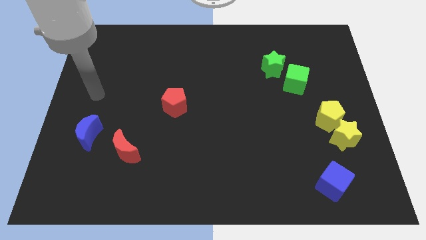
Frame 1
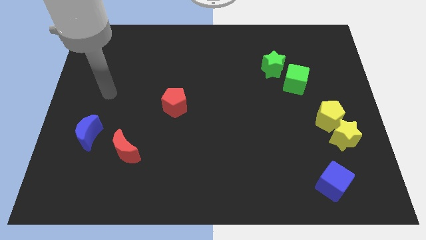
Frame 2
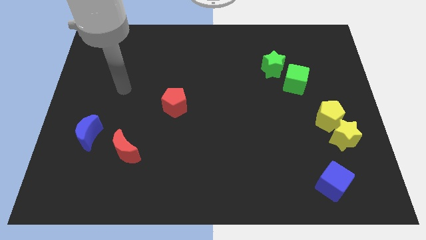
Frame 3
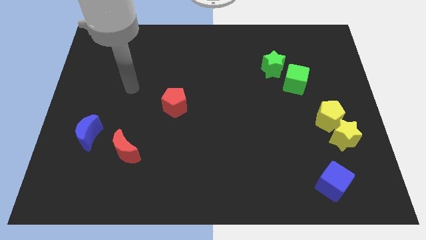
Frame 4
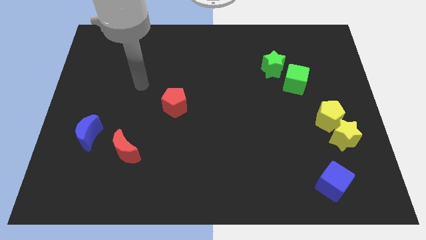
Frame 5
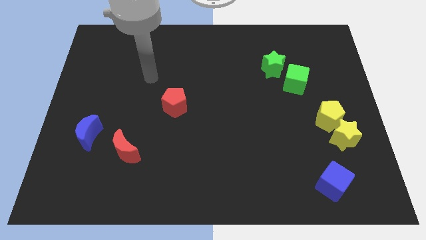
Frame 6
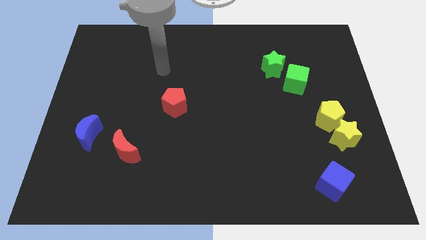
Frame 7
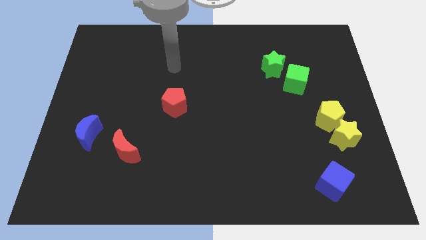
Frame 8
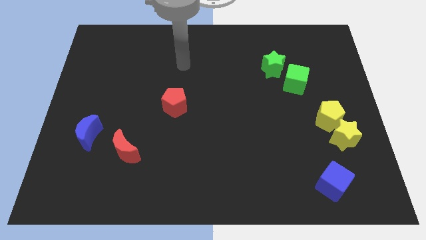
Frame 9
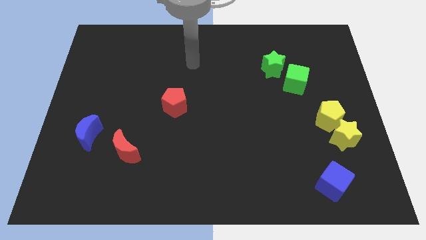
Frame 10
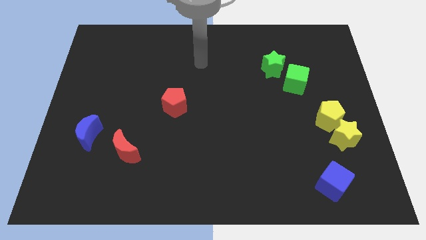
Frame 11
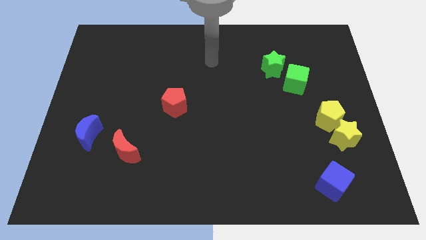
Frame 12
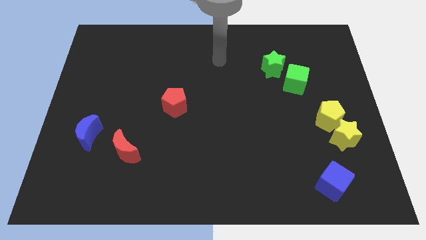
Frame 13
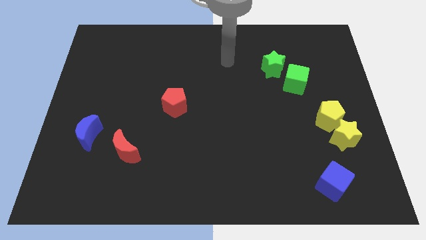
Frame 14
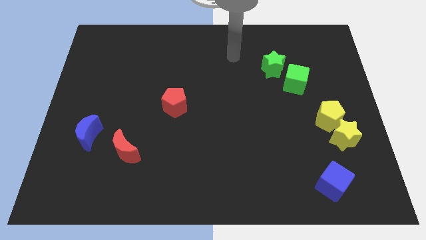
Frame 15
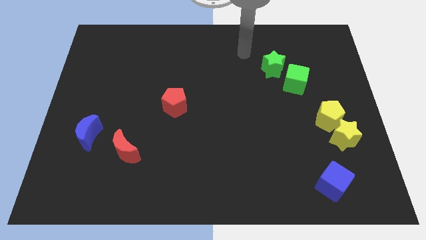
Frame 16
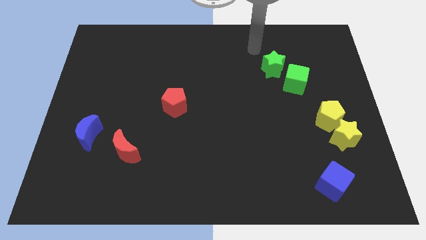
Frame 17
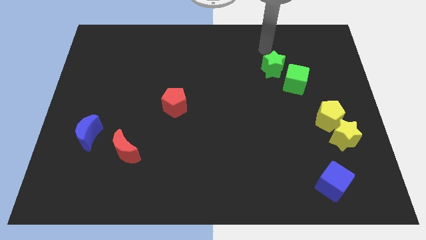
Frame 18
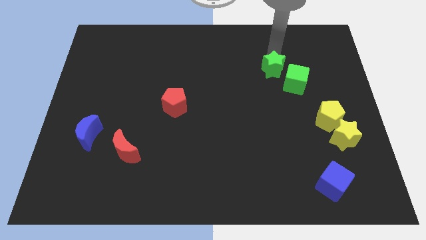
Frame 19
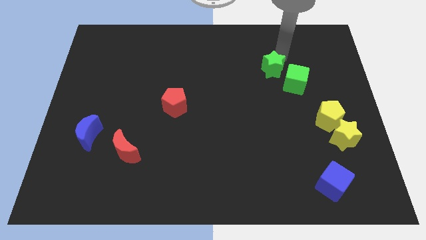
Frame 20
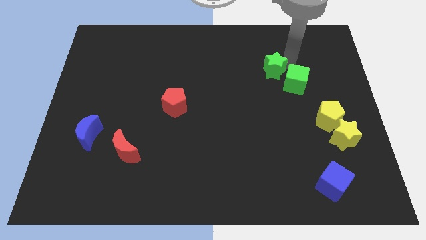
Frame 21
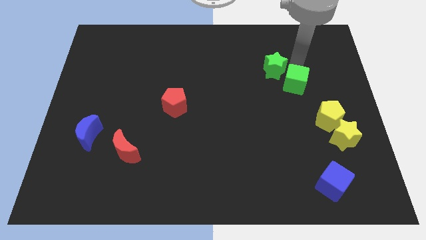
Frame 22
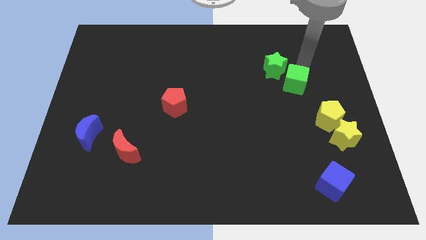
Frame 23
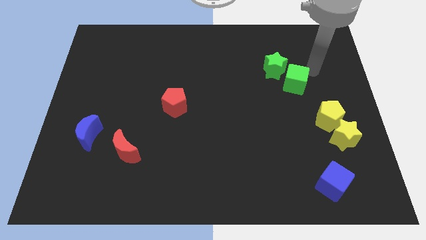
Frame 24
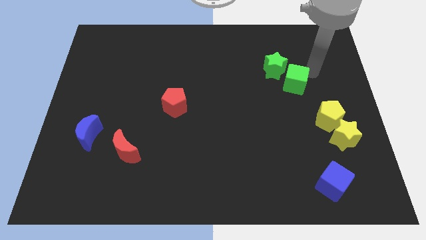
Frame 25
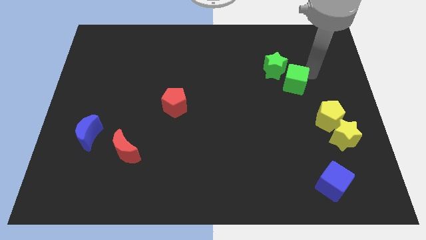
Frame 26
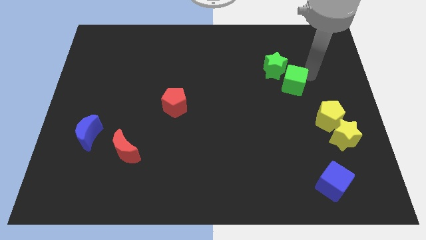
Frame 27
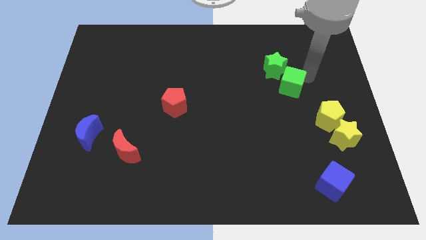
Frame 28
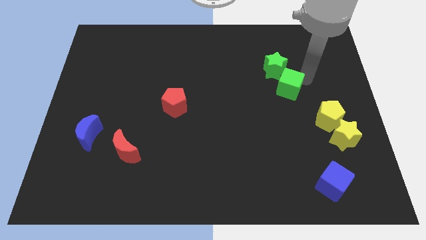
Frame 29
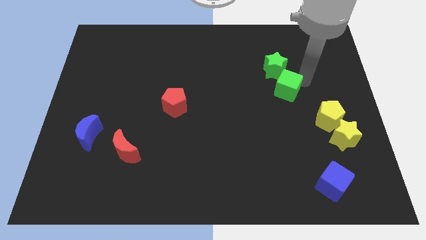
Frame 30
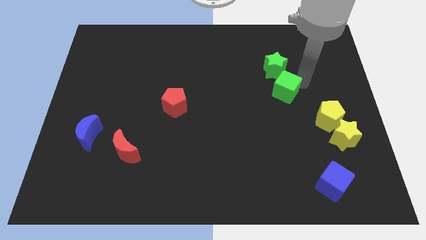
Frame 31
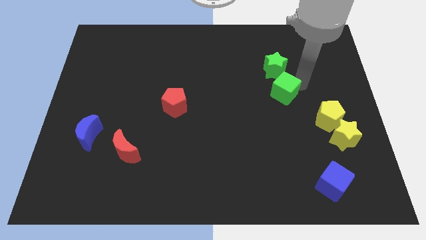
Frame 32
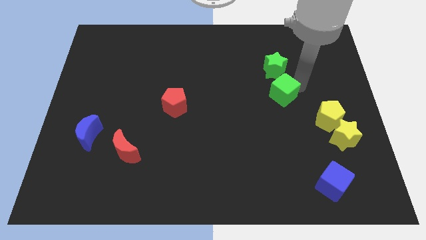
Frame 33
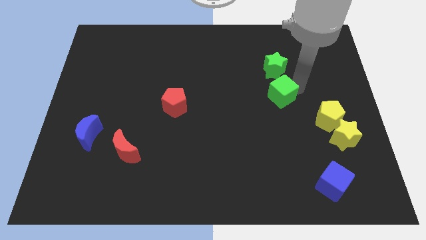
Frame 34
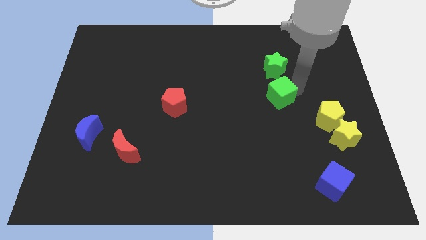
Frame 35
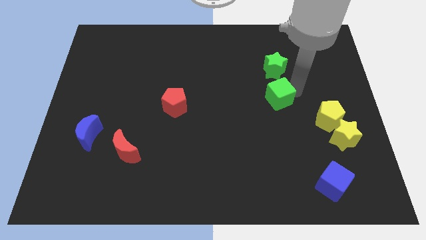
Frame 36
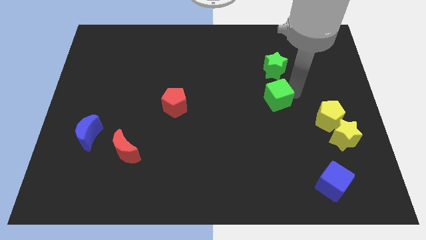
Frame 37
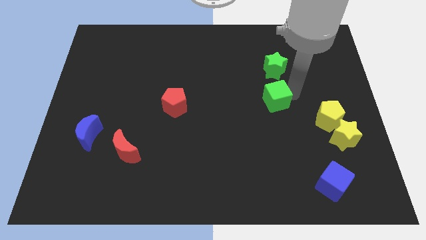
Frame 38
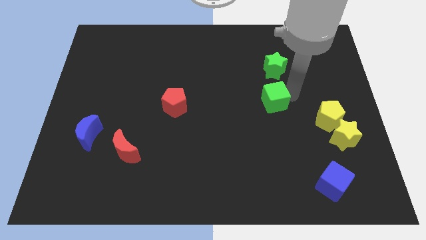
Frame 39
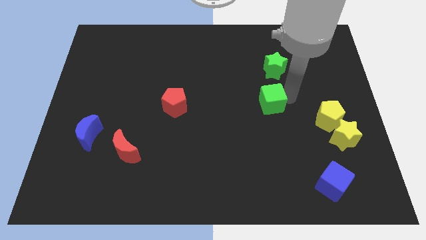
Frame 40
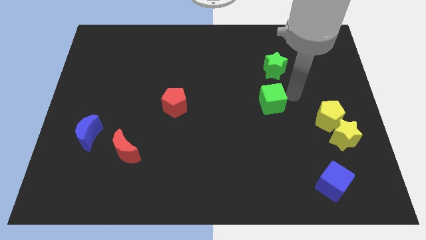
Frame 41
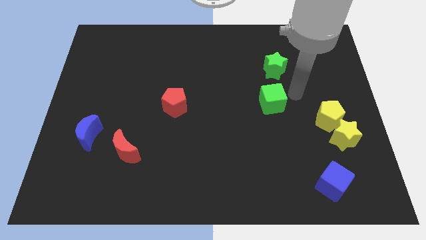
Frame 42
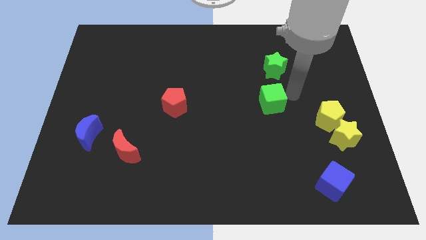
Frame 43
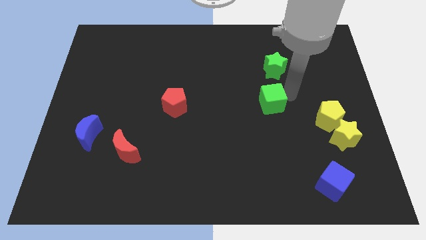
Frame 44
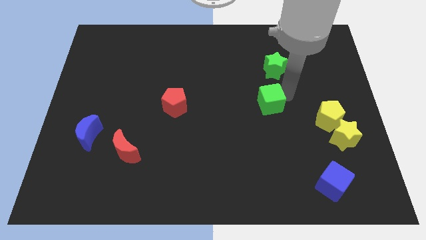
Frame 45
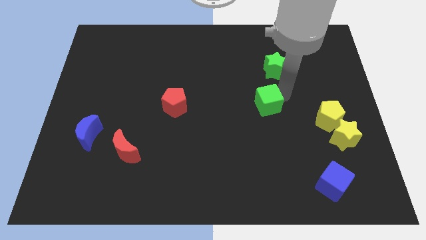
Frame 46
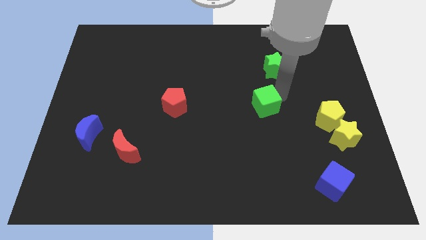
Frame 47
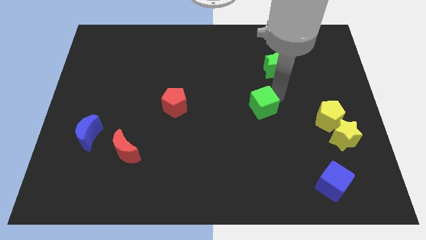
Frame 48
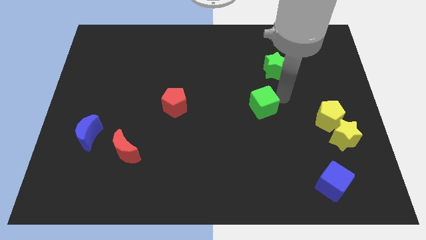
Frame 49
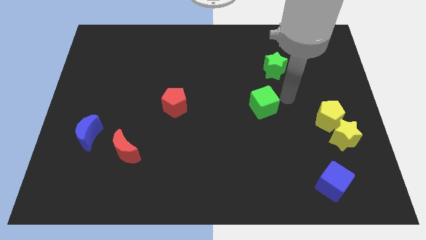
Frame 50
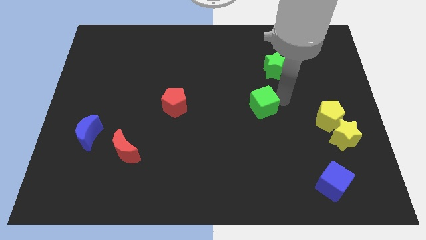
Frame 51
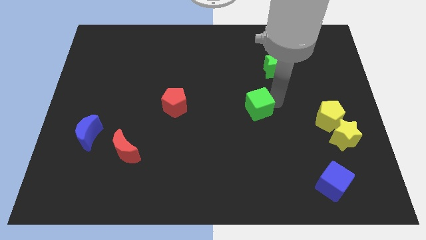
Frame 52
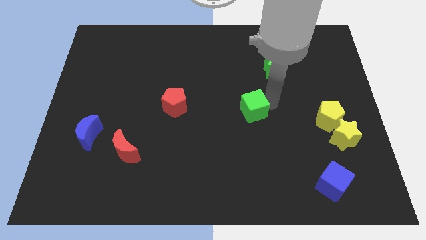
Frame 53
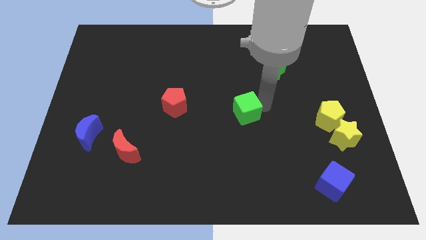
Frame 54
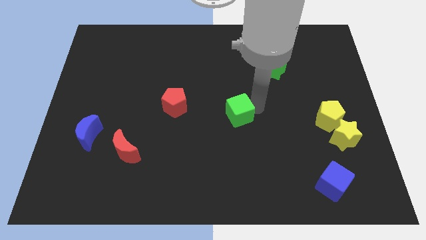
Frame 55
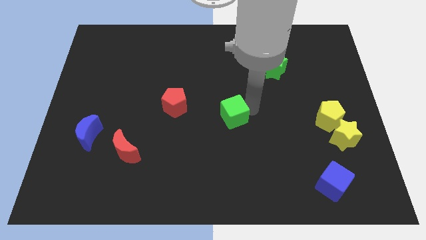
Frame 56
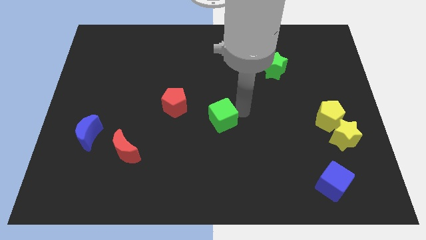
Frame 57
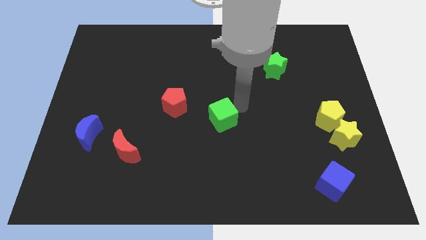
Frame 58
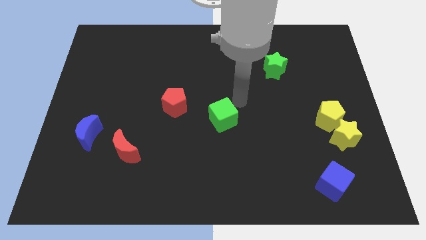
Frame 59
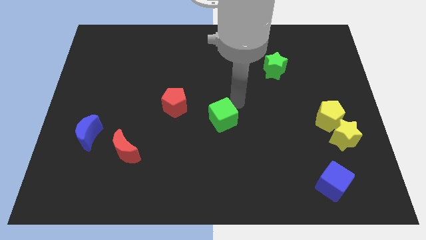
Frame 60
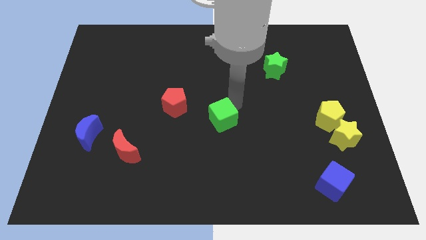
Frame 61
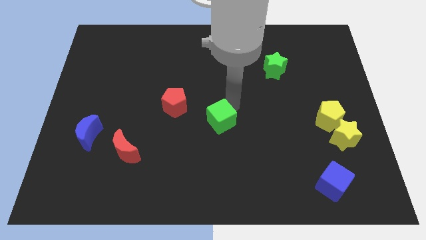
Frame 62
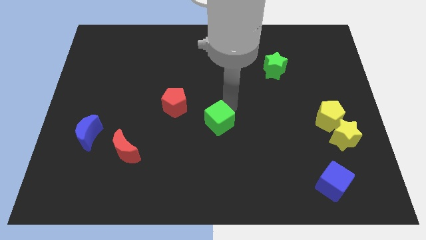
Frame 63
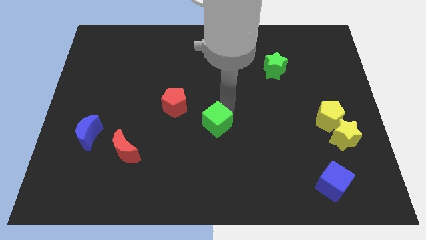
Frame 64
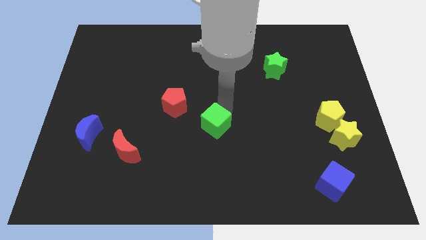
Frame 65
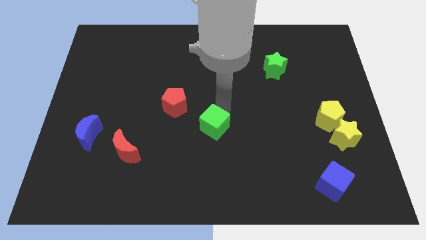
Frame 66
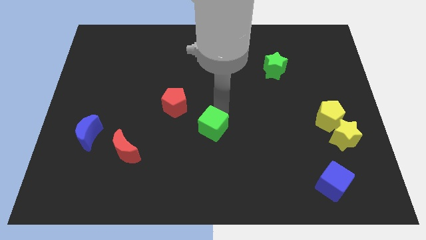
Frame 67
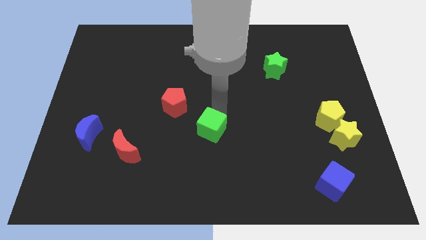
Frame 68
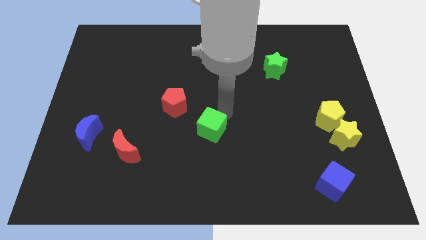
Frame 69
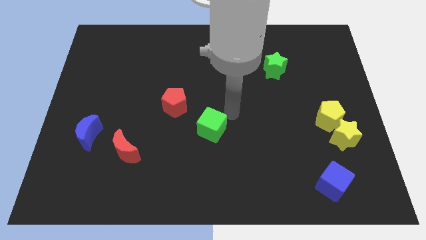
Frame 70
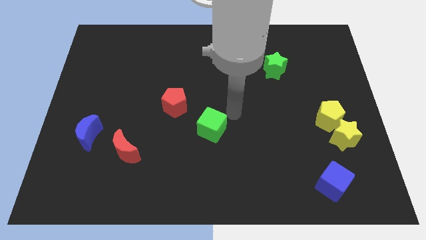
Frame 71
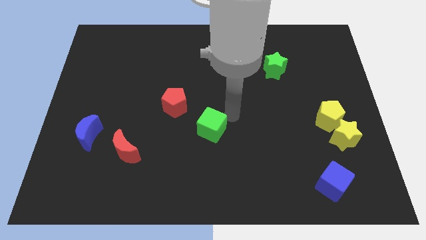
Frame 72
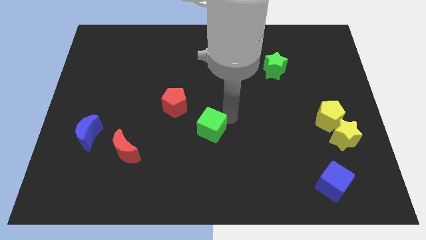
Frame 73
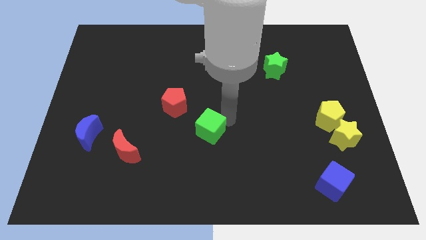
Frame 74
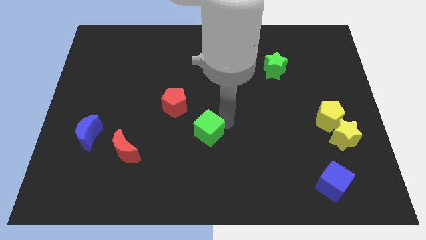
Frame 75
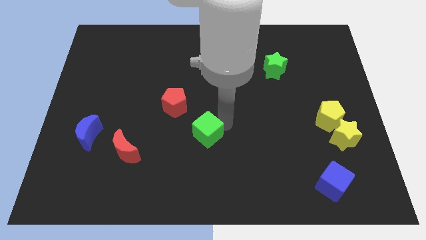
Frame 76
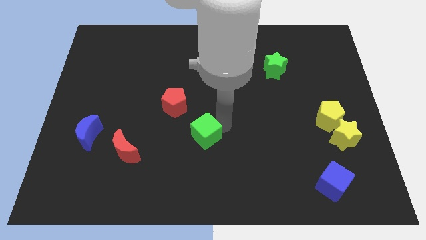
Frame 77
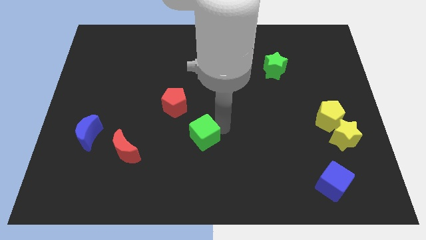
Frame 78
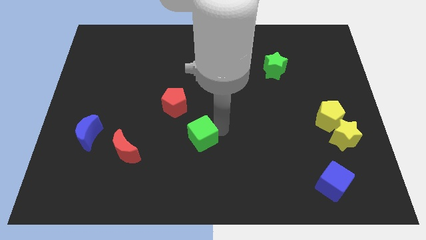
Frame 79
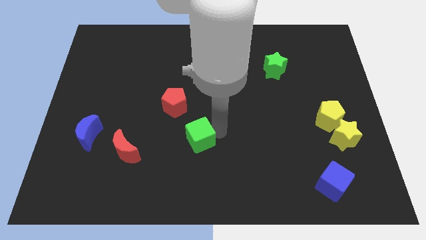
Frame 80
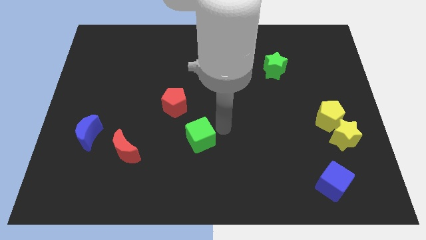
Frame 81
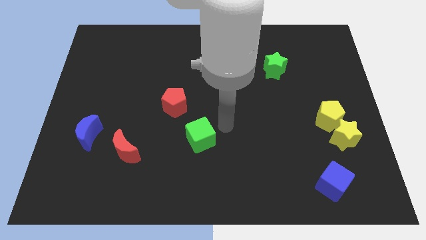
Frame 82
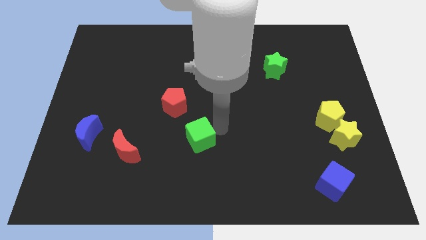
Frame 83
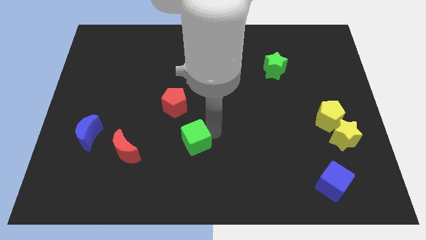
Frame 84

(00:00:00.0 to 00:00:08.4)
push the green cube to the right side of the red moon
